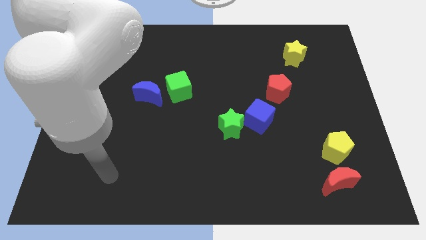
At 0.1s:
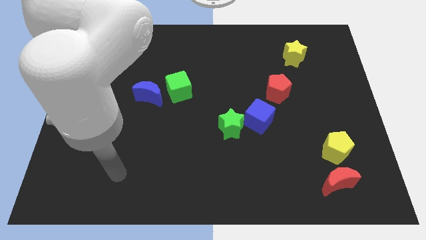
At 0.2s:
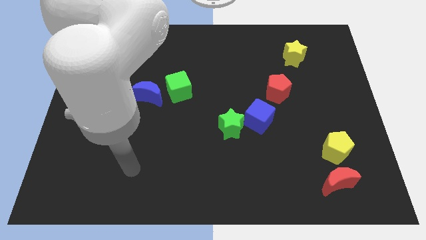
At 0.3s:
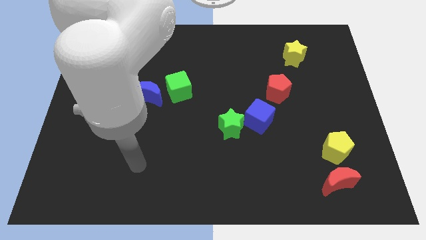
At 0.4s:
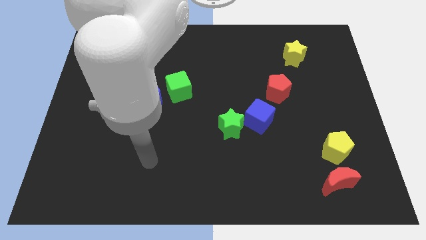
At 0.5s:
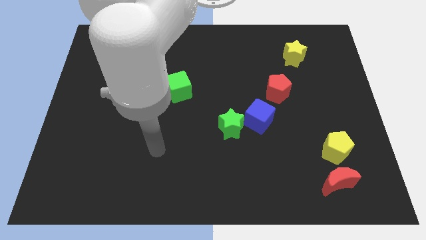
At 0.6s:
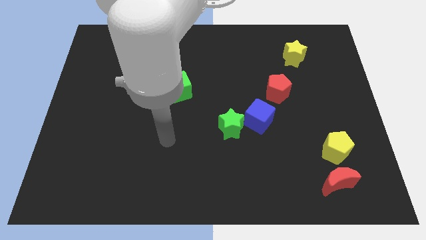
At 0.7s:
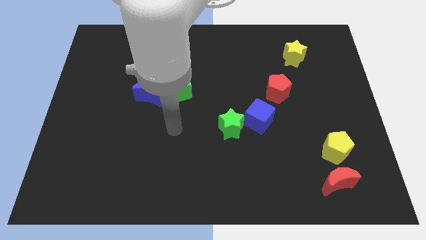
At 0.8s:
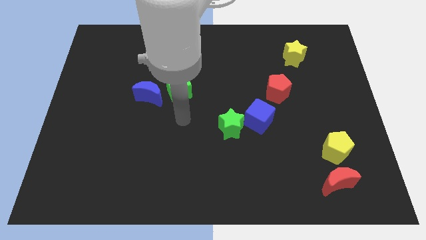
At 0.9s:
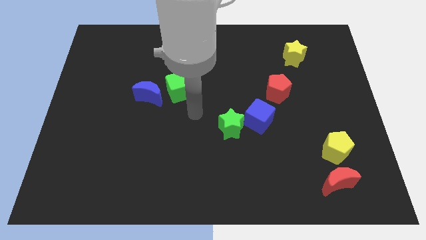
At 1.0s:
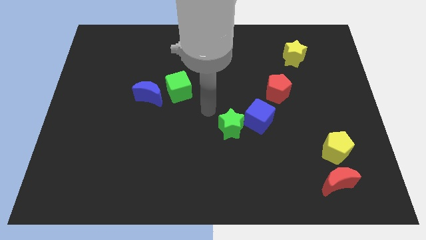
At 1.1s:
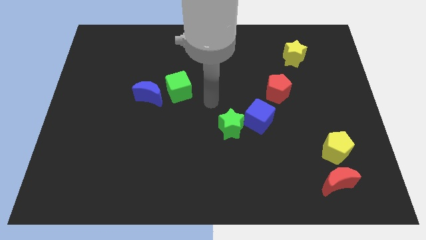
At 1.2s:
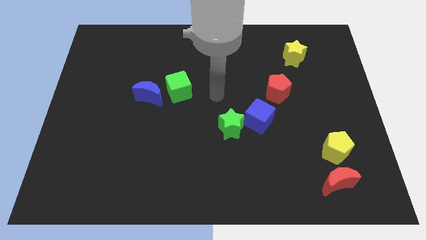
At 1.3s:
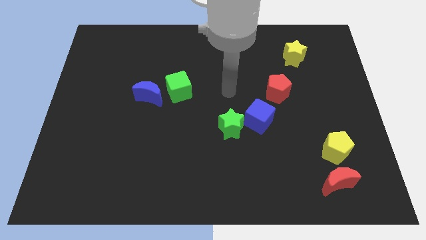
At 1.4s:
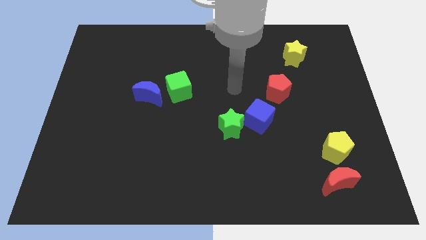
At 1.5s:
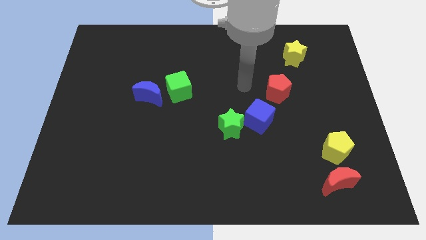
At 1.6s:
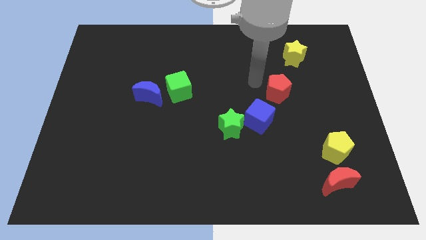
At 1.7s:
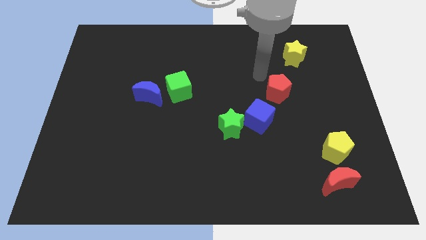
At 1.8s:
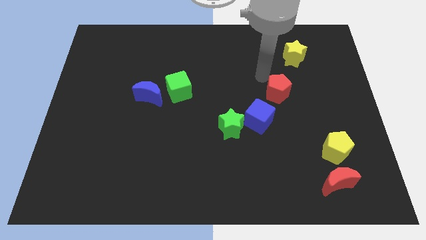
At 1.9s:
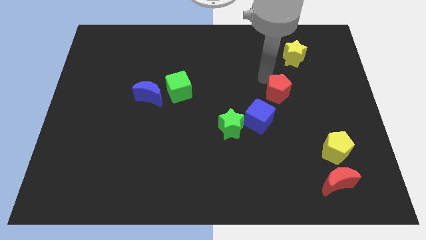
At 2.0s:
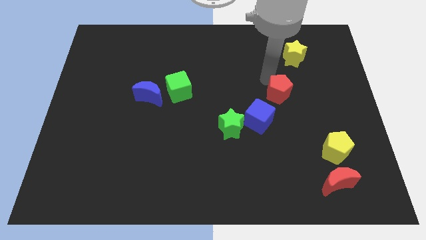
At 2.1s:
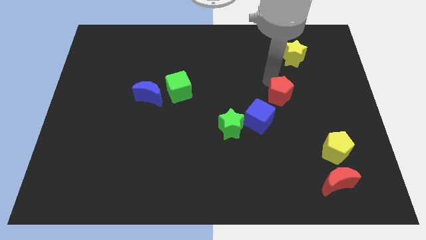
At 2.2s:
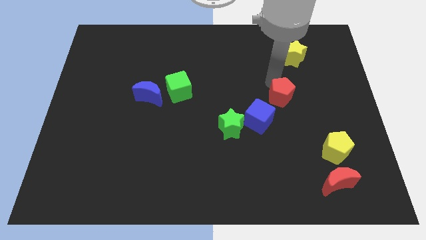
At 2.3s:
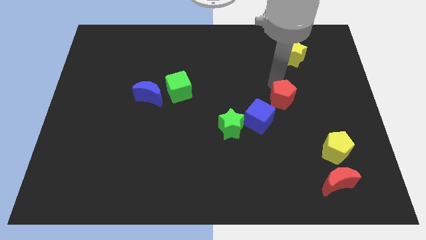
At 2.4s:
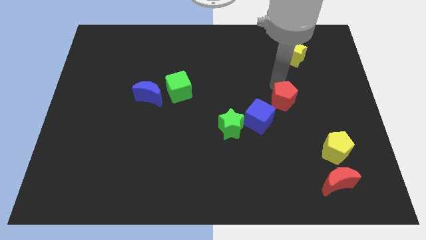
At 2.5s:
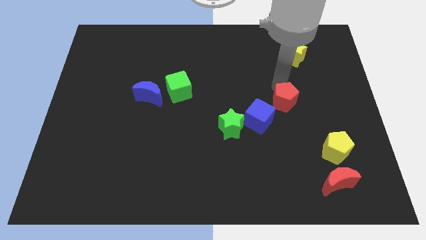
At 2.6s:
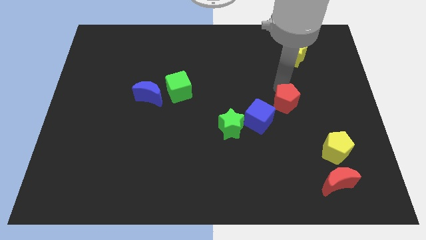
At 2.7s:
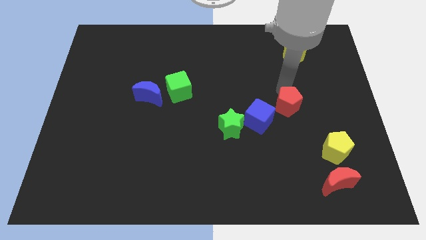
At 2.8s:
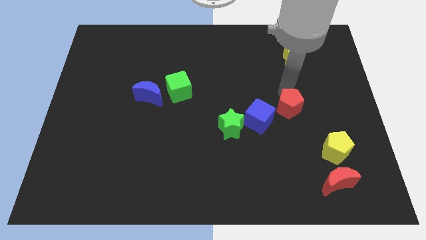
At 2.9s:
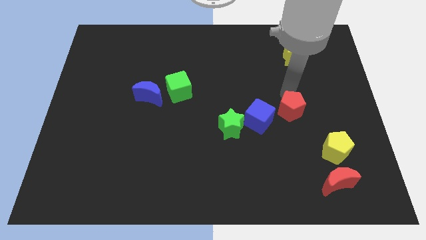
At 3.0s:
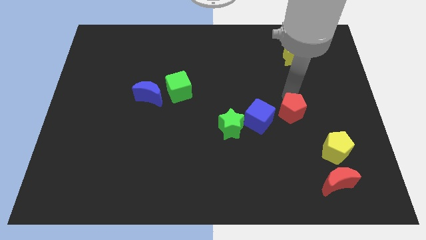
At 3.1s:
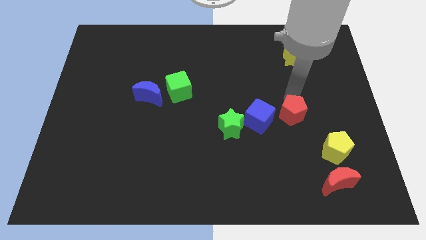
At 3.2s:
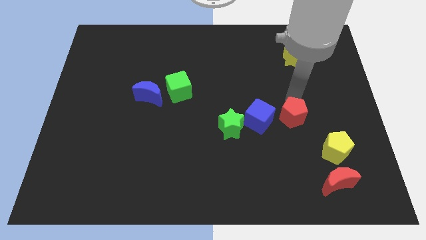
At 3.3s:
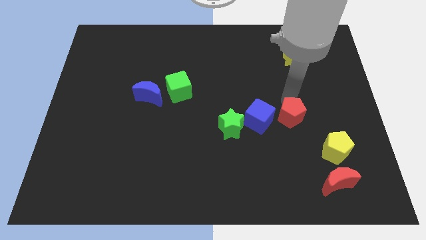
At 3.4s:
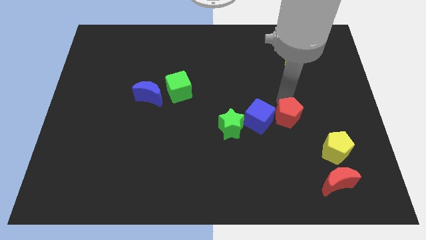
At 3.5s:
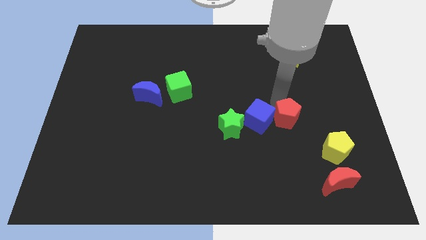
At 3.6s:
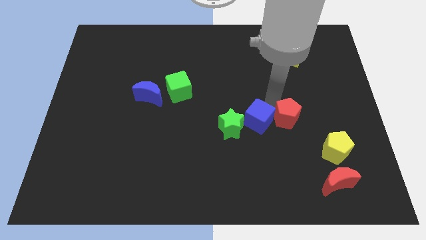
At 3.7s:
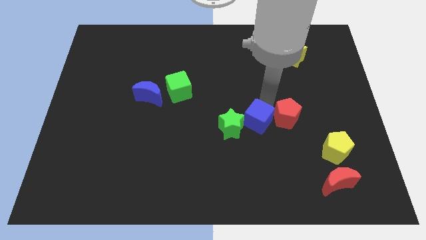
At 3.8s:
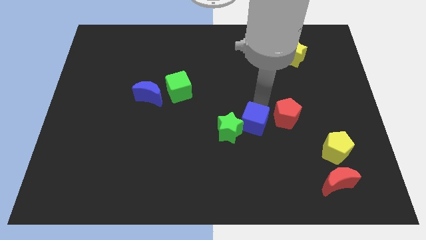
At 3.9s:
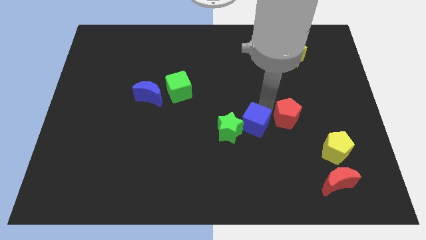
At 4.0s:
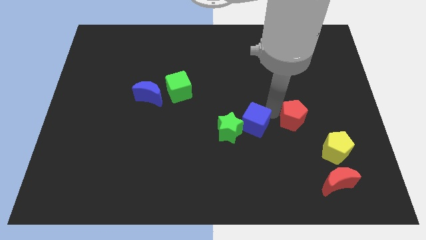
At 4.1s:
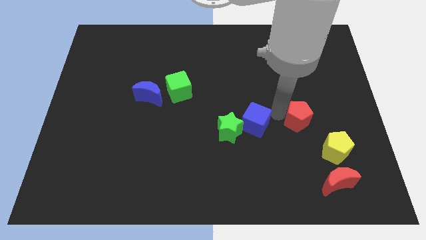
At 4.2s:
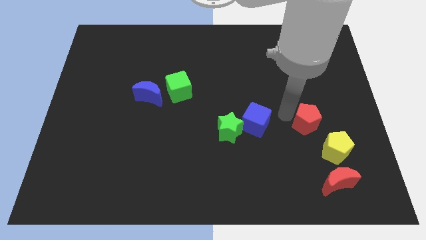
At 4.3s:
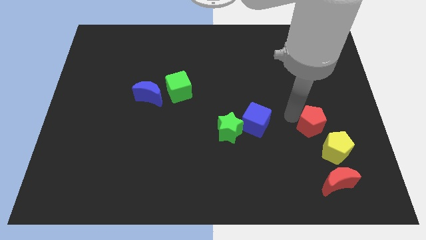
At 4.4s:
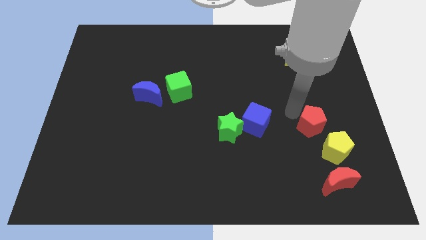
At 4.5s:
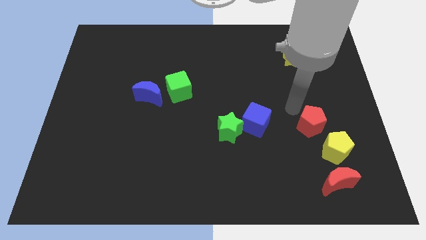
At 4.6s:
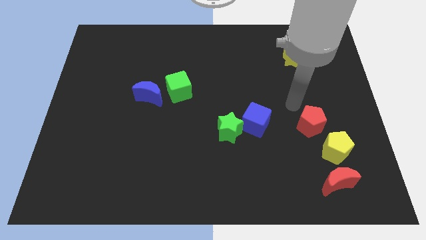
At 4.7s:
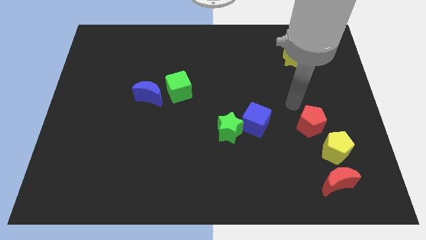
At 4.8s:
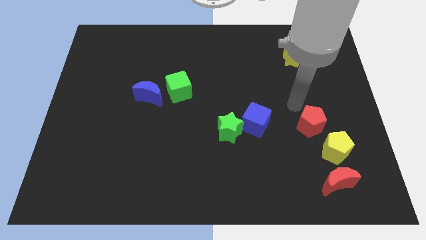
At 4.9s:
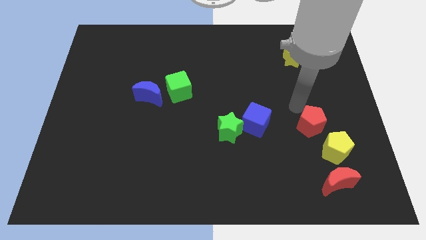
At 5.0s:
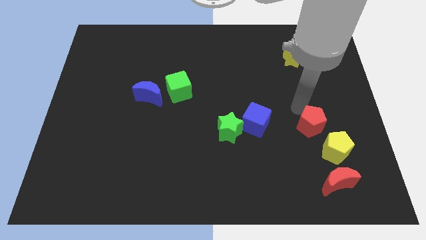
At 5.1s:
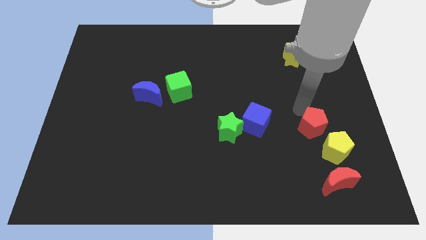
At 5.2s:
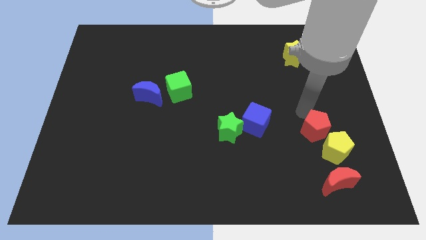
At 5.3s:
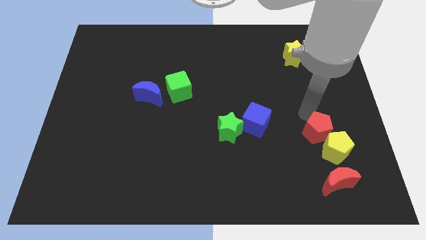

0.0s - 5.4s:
put the red pentagon towards the yellow pentagon

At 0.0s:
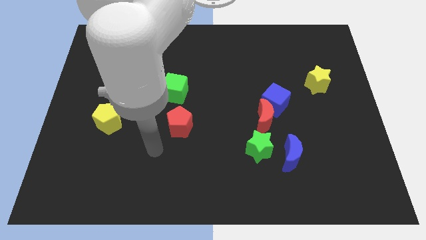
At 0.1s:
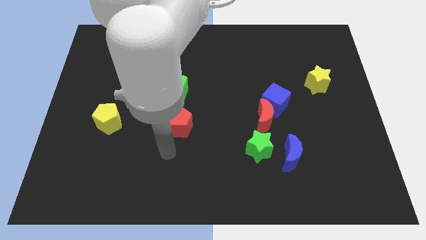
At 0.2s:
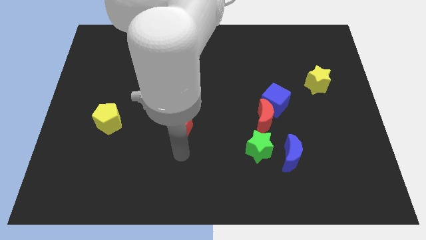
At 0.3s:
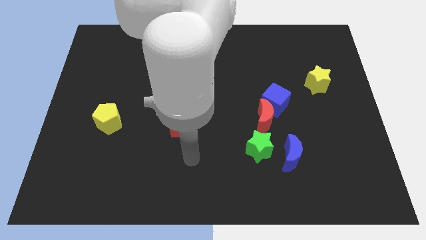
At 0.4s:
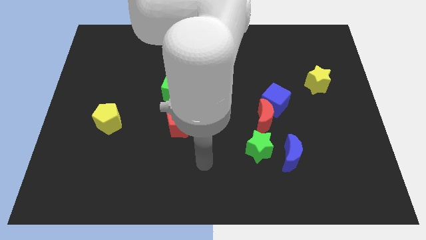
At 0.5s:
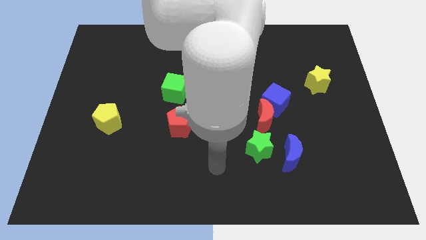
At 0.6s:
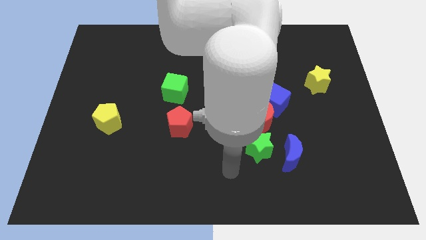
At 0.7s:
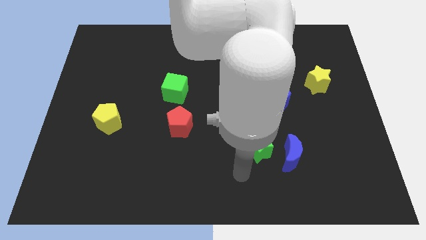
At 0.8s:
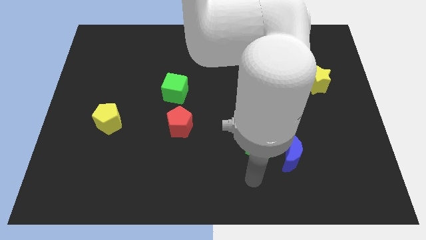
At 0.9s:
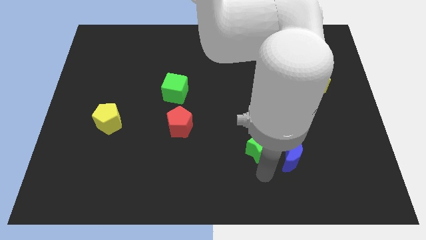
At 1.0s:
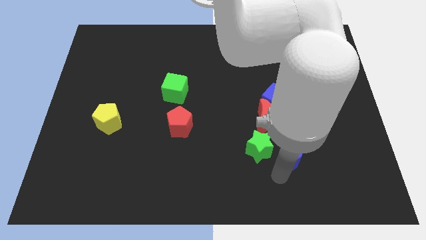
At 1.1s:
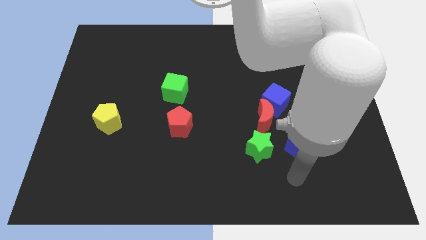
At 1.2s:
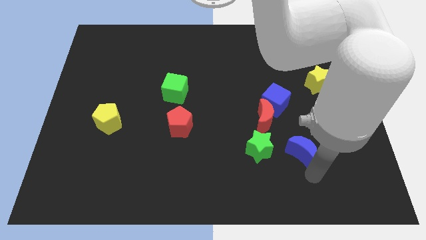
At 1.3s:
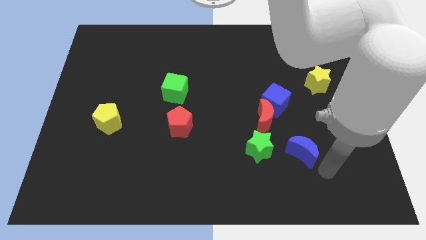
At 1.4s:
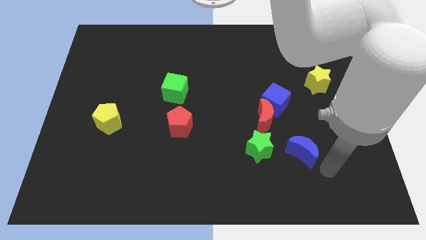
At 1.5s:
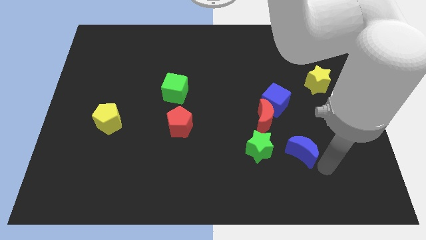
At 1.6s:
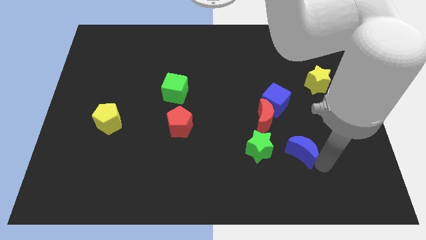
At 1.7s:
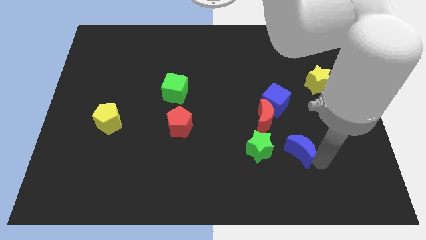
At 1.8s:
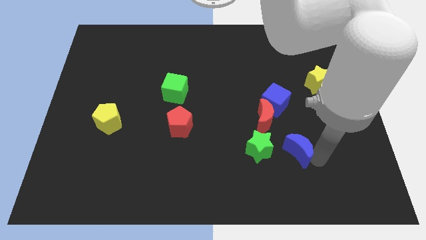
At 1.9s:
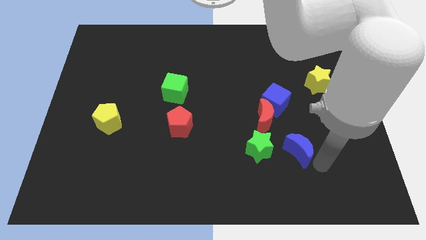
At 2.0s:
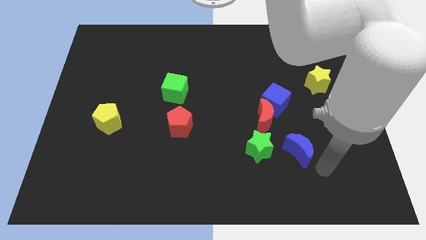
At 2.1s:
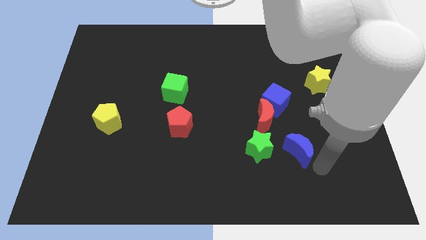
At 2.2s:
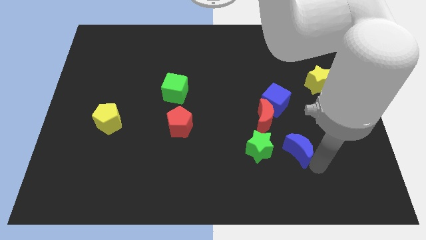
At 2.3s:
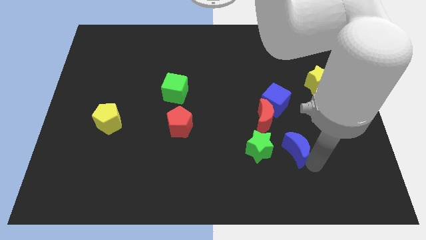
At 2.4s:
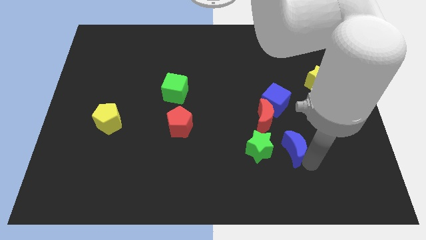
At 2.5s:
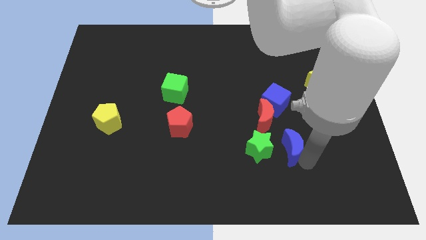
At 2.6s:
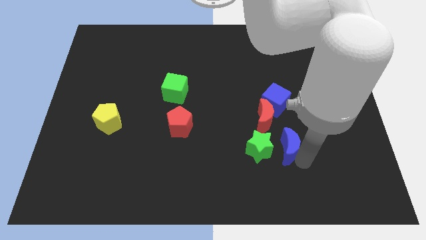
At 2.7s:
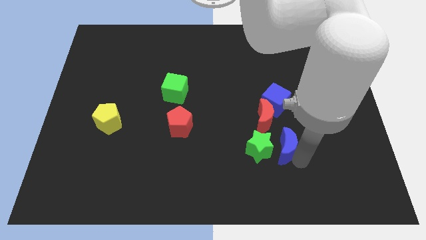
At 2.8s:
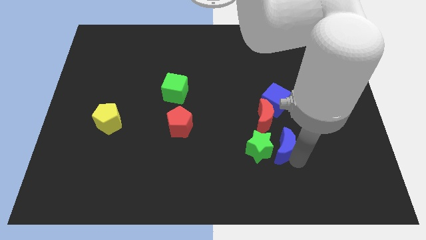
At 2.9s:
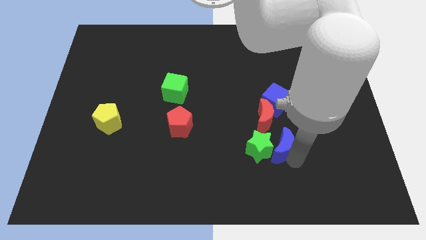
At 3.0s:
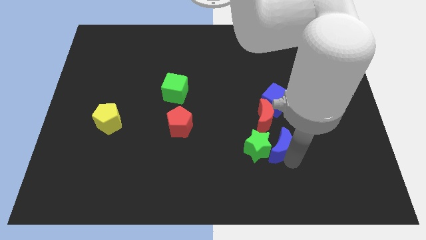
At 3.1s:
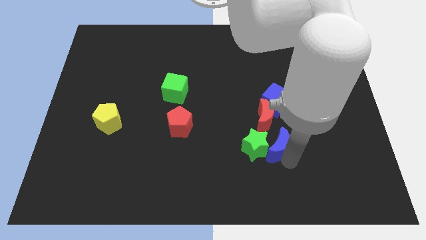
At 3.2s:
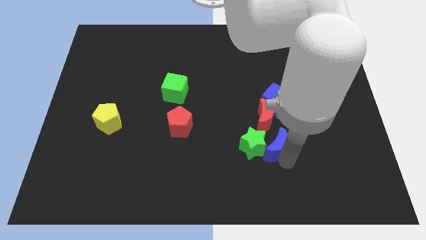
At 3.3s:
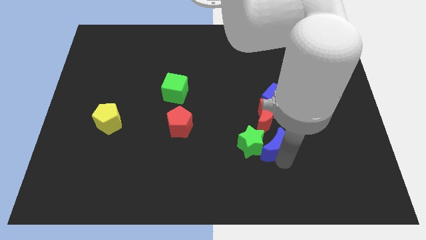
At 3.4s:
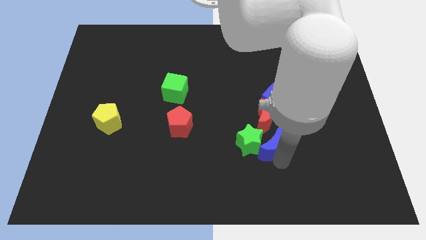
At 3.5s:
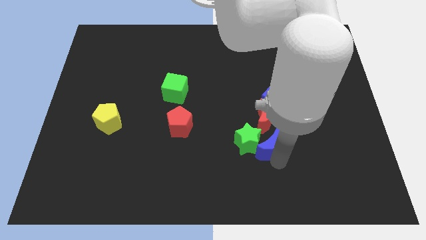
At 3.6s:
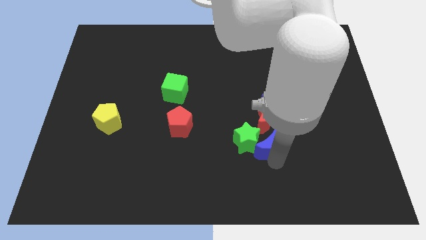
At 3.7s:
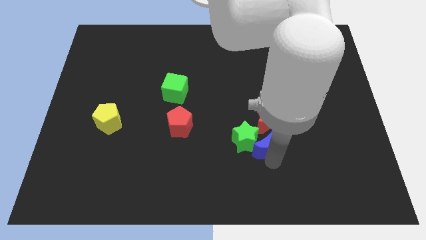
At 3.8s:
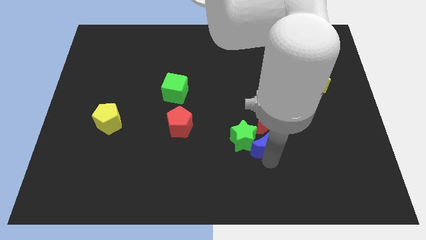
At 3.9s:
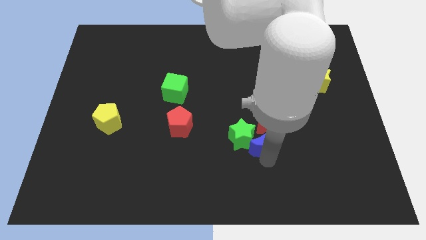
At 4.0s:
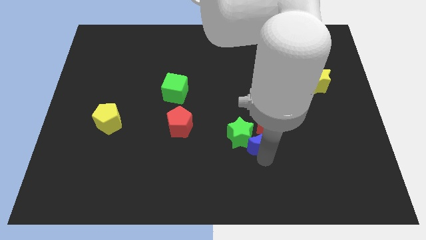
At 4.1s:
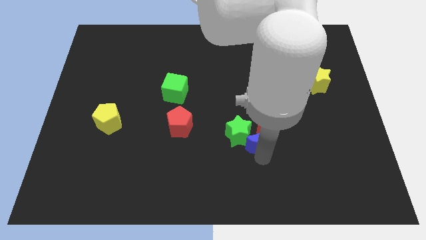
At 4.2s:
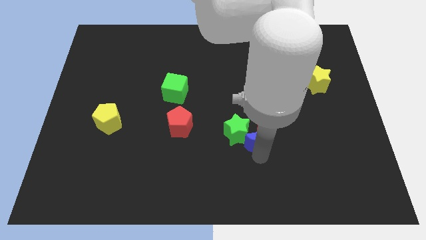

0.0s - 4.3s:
push the blue moon towards the red moon
